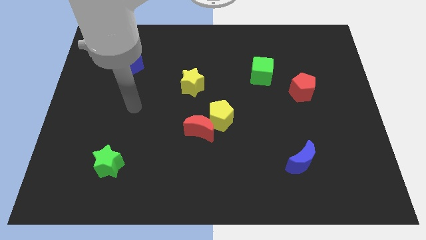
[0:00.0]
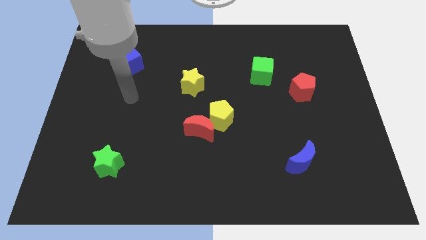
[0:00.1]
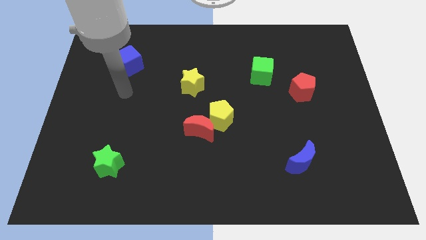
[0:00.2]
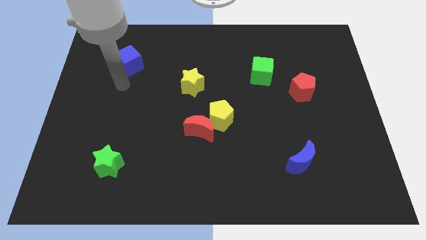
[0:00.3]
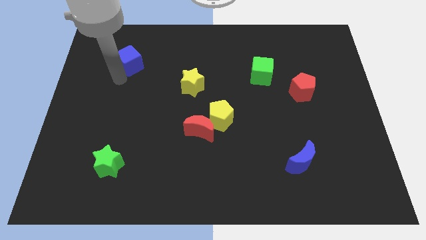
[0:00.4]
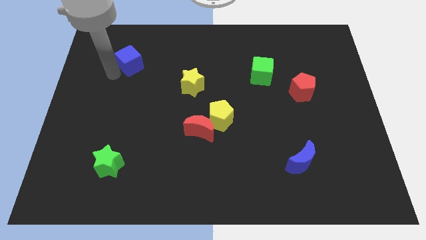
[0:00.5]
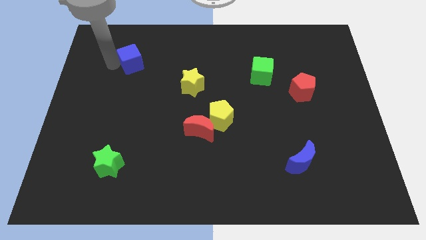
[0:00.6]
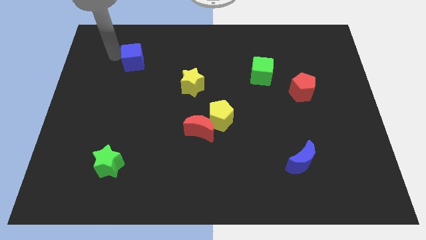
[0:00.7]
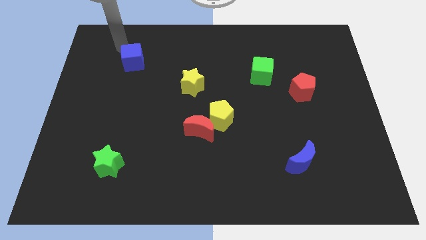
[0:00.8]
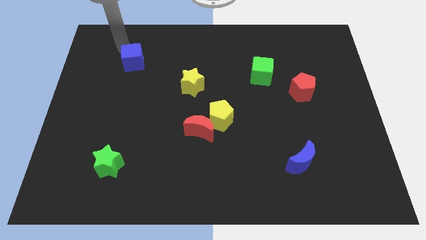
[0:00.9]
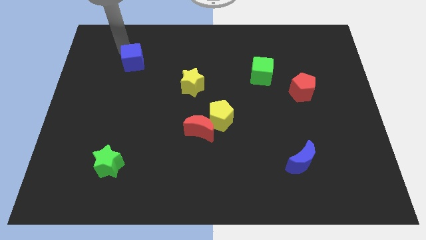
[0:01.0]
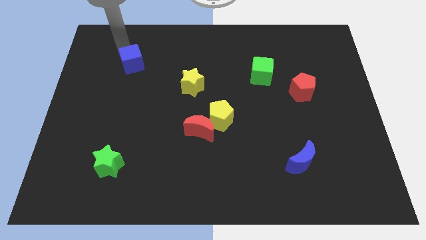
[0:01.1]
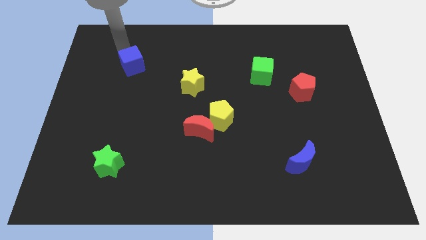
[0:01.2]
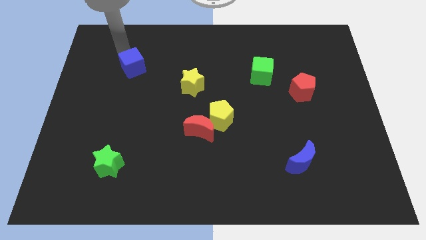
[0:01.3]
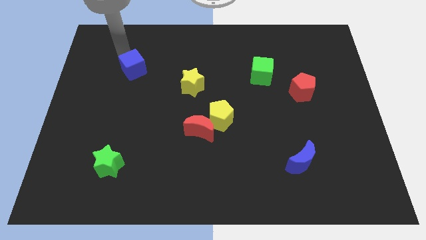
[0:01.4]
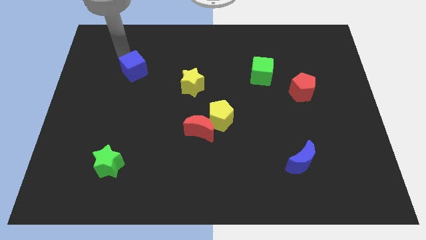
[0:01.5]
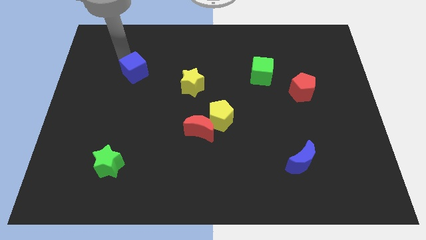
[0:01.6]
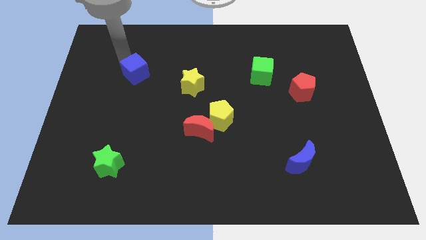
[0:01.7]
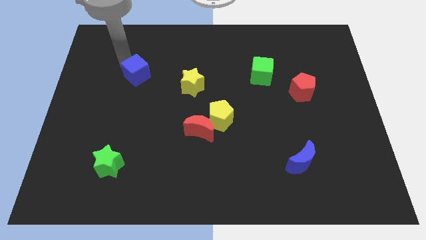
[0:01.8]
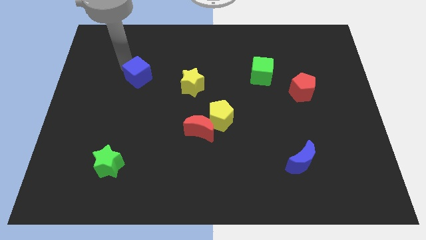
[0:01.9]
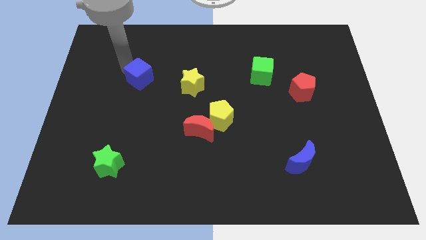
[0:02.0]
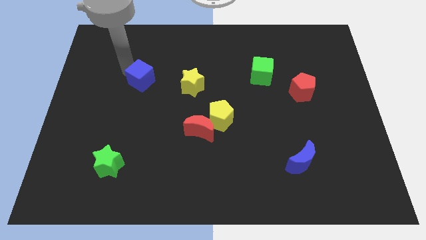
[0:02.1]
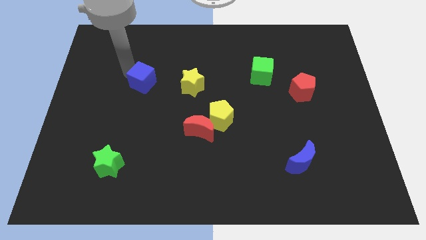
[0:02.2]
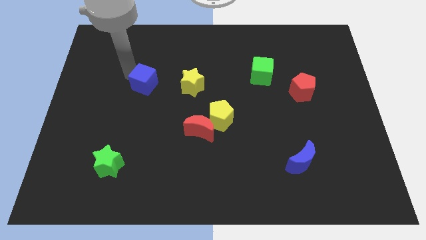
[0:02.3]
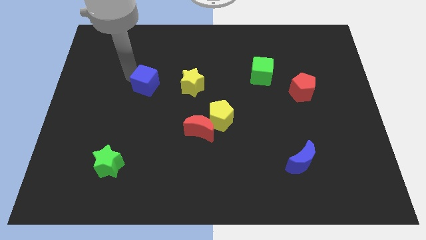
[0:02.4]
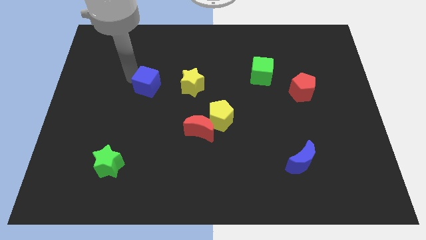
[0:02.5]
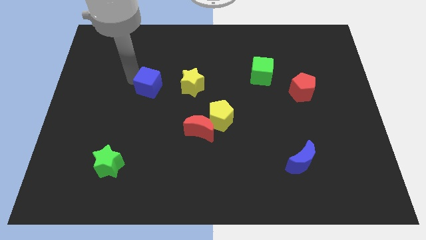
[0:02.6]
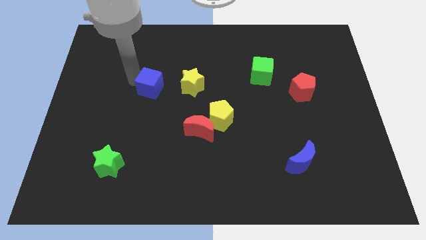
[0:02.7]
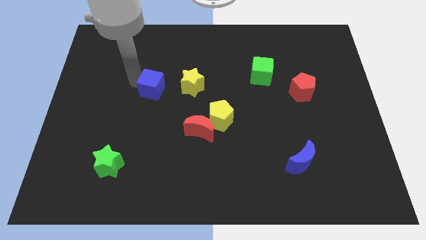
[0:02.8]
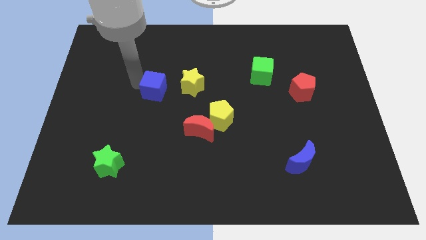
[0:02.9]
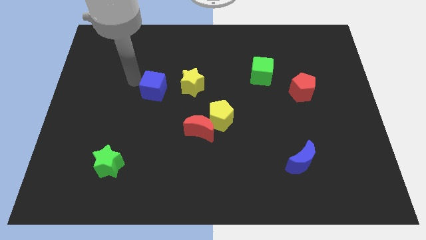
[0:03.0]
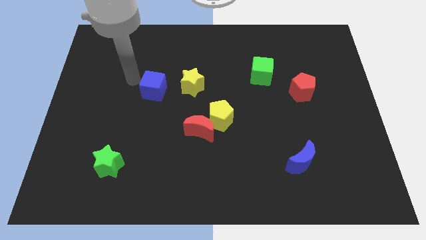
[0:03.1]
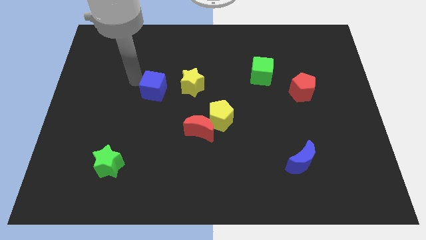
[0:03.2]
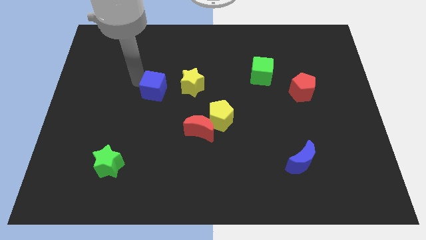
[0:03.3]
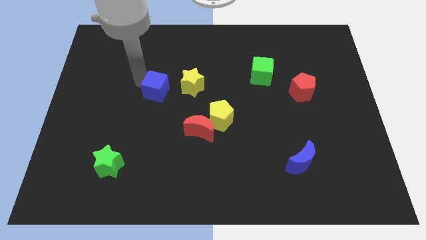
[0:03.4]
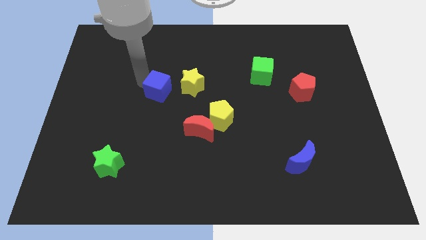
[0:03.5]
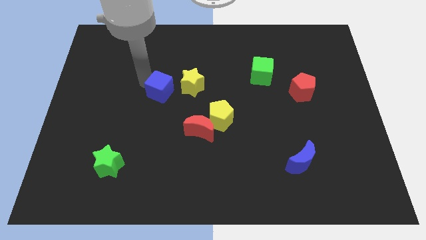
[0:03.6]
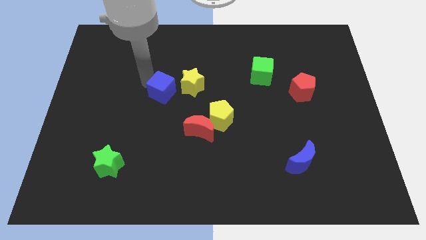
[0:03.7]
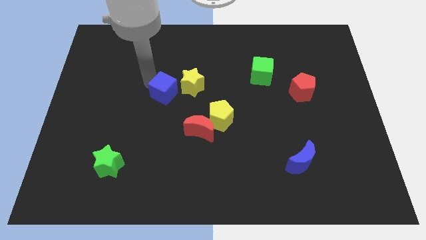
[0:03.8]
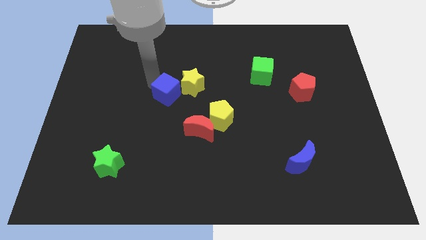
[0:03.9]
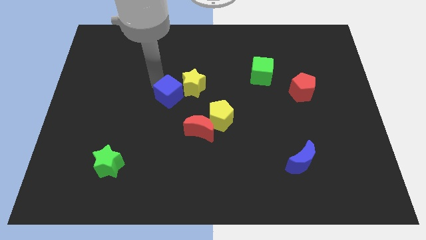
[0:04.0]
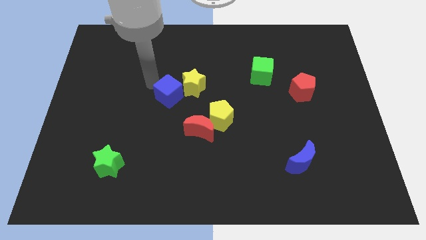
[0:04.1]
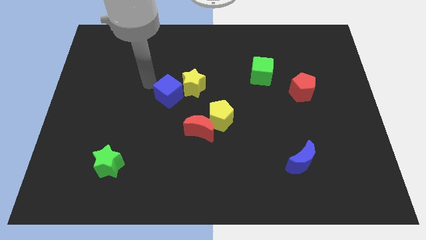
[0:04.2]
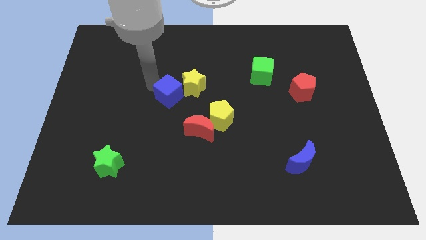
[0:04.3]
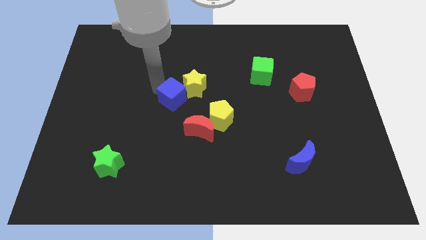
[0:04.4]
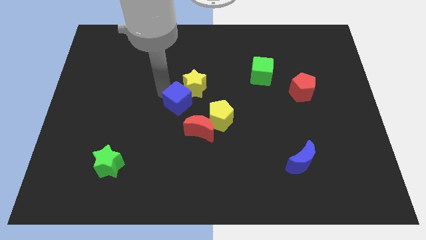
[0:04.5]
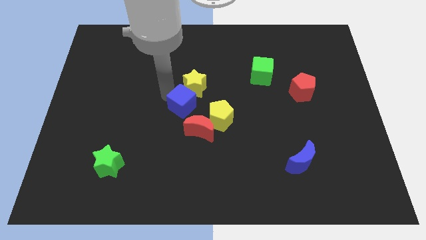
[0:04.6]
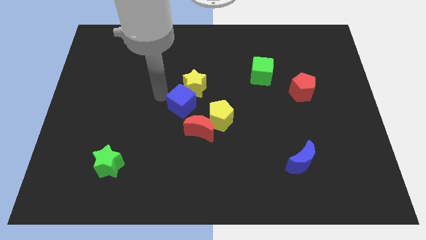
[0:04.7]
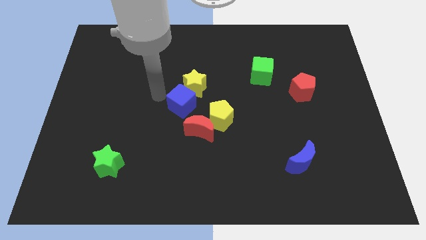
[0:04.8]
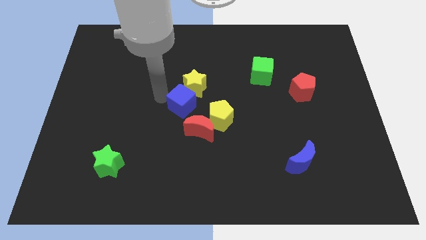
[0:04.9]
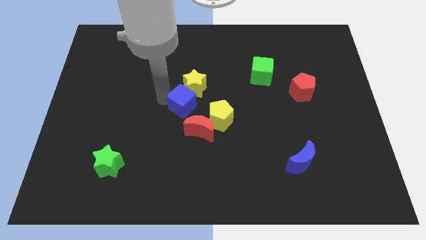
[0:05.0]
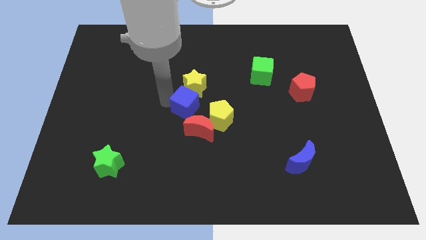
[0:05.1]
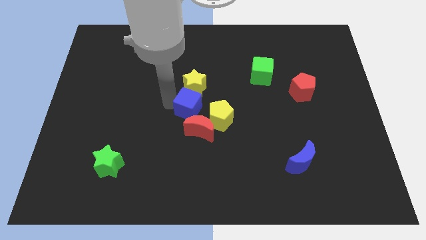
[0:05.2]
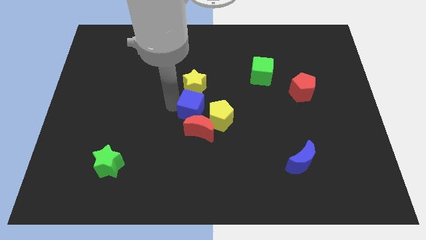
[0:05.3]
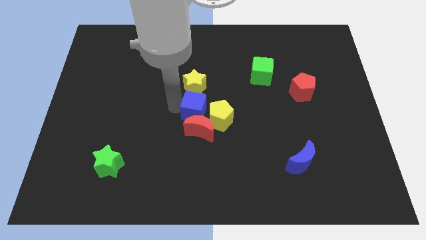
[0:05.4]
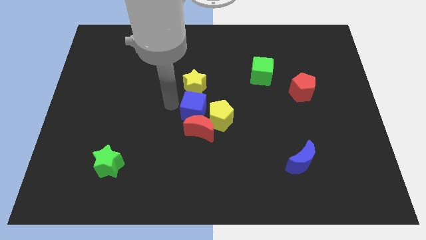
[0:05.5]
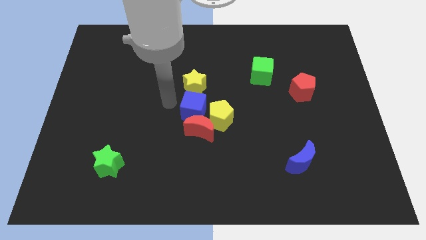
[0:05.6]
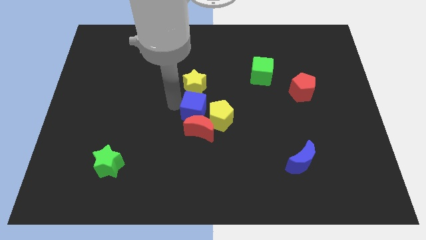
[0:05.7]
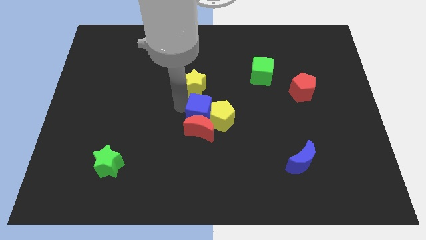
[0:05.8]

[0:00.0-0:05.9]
move the blue cube close to the yellow pentagon

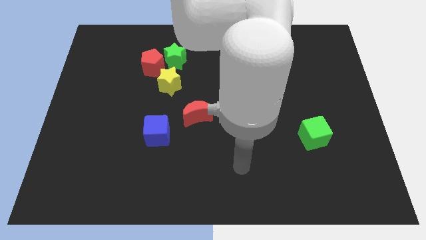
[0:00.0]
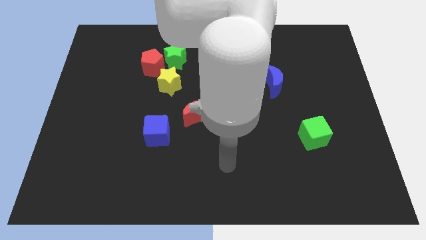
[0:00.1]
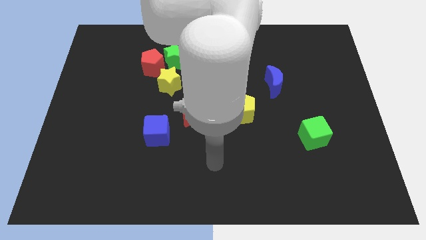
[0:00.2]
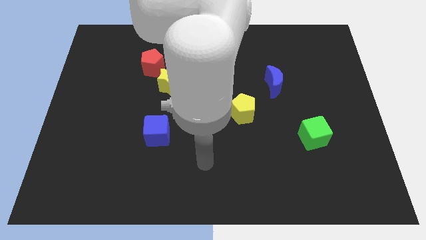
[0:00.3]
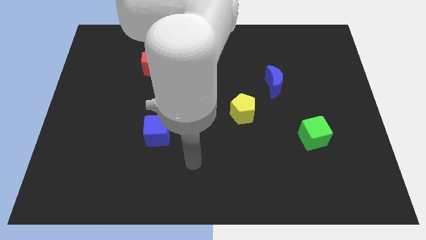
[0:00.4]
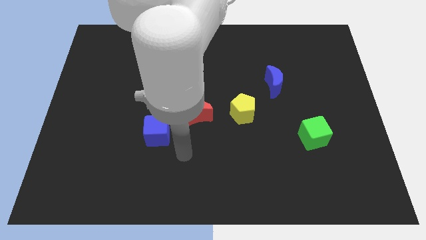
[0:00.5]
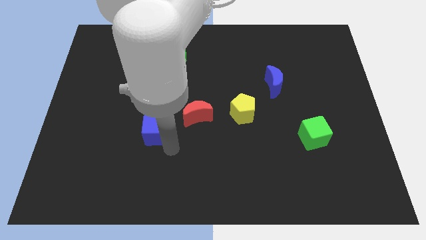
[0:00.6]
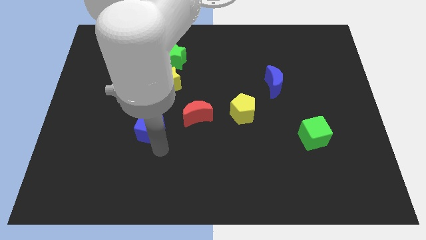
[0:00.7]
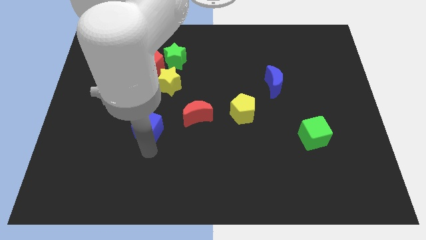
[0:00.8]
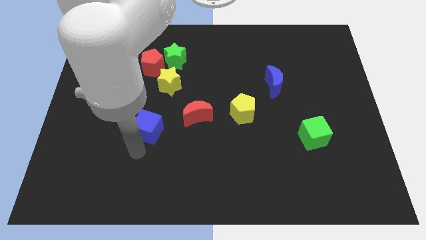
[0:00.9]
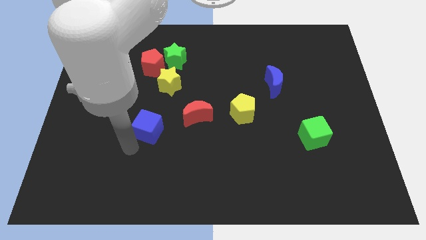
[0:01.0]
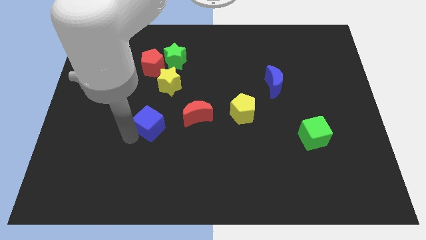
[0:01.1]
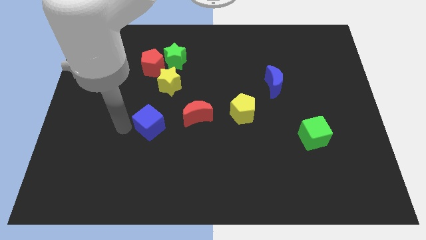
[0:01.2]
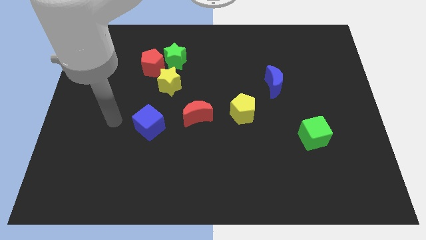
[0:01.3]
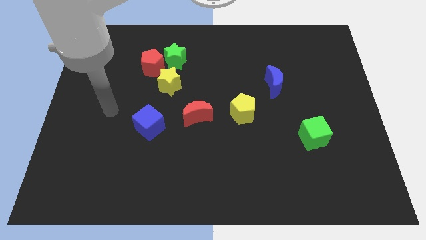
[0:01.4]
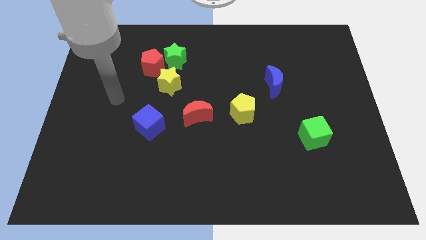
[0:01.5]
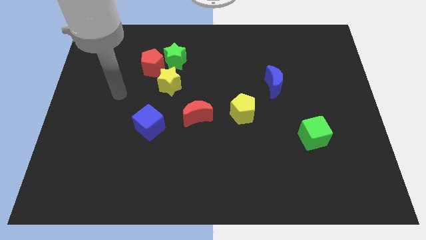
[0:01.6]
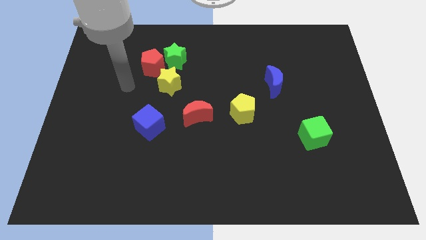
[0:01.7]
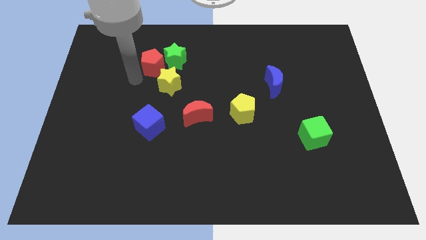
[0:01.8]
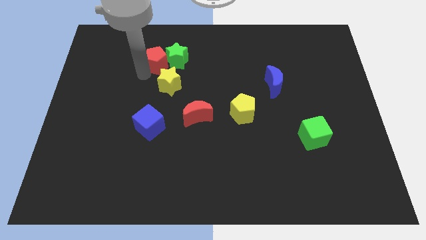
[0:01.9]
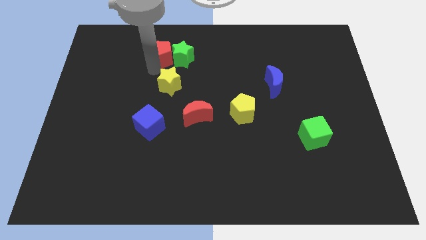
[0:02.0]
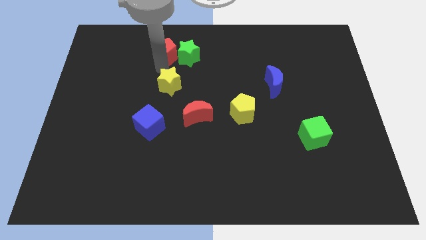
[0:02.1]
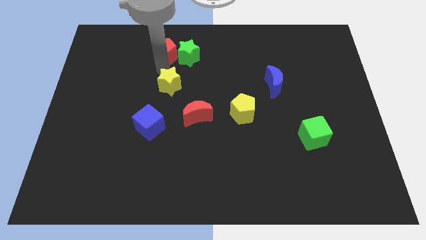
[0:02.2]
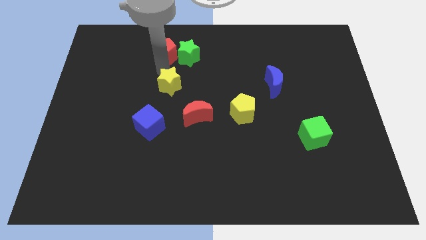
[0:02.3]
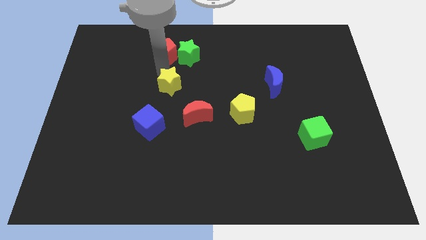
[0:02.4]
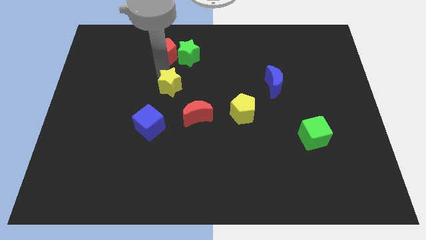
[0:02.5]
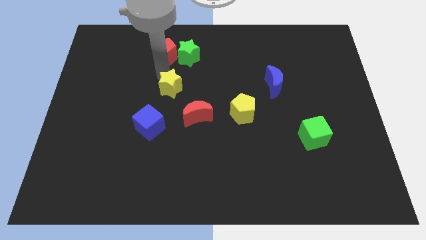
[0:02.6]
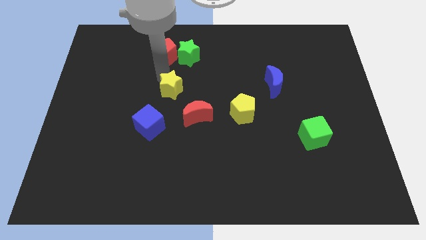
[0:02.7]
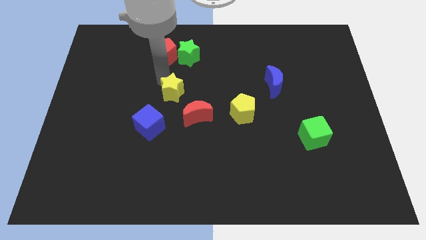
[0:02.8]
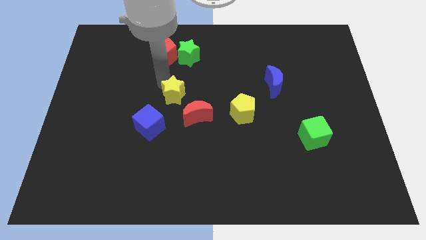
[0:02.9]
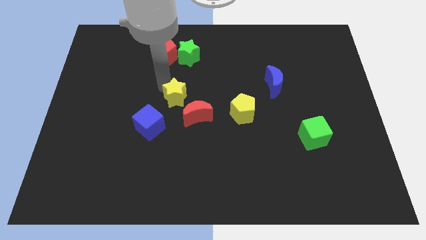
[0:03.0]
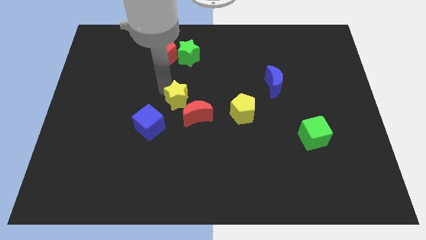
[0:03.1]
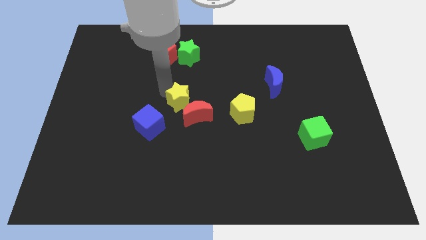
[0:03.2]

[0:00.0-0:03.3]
push the yellow star close to the red moon
